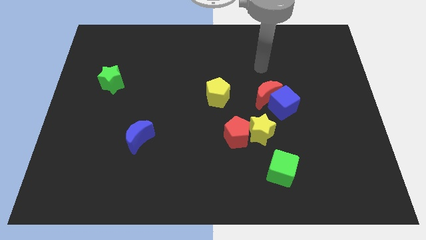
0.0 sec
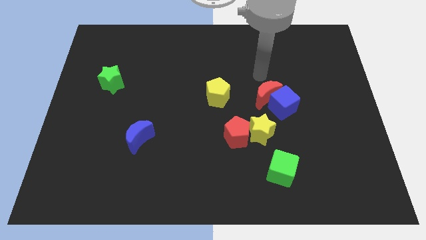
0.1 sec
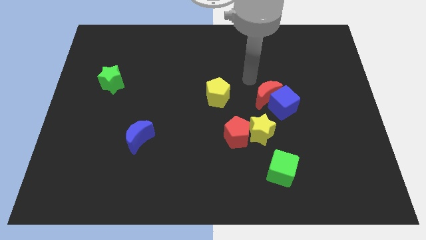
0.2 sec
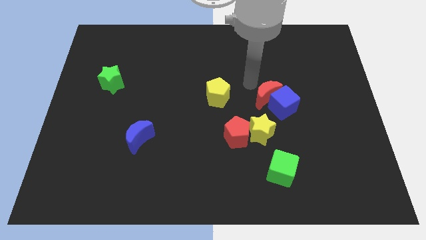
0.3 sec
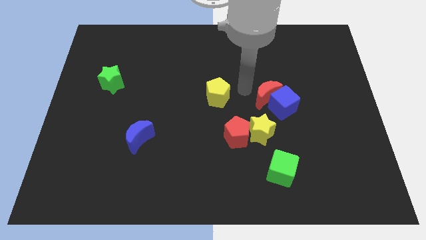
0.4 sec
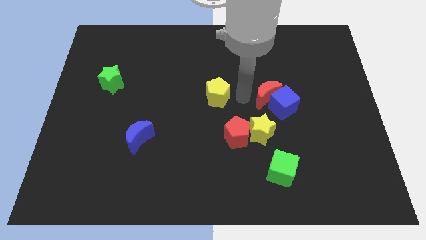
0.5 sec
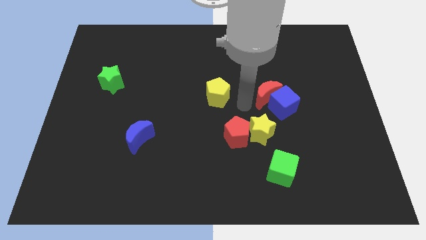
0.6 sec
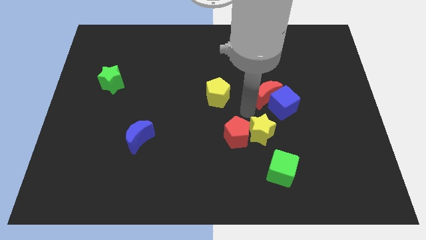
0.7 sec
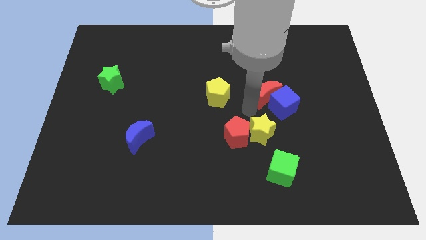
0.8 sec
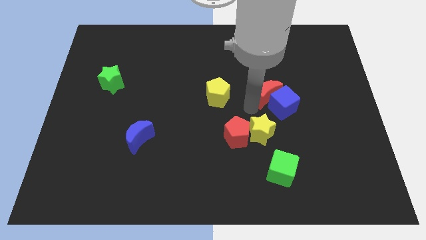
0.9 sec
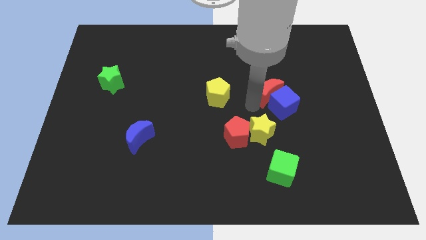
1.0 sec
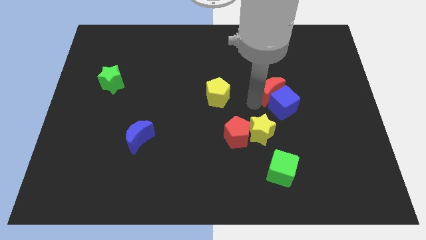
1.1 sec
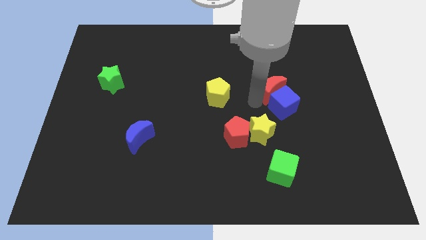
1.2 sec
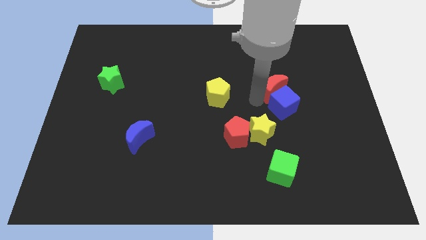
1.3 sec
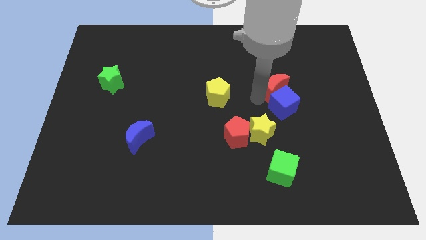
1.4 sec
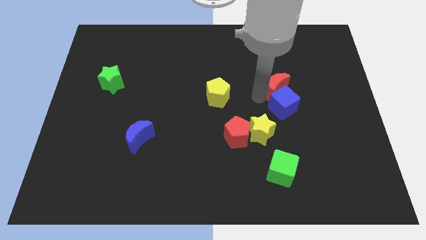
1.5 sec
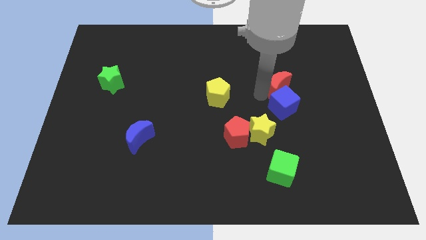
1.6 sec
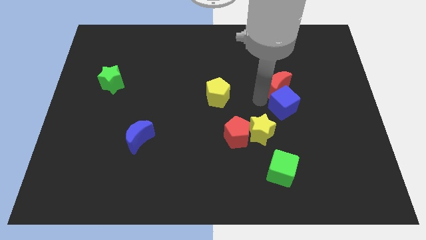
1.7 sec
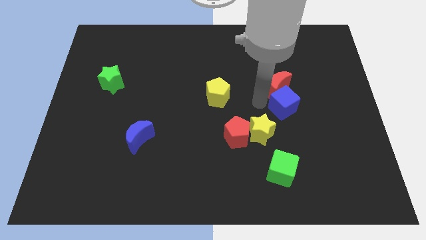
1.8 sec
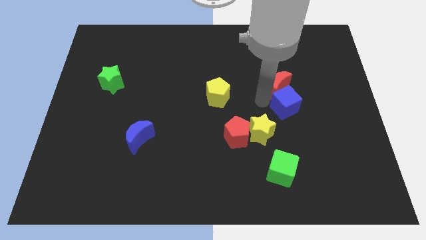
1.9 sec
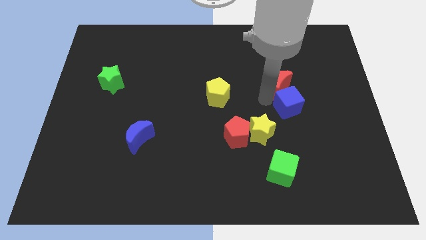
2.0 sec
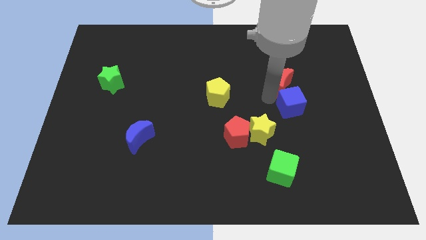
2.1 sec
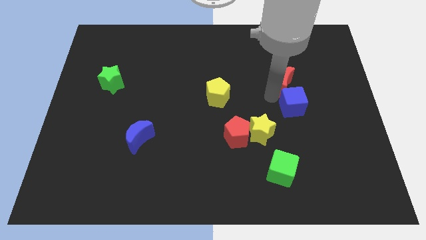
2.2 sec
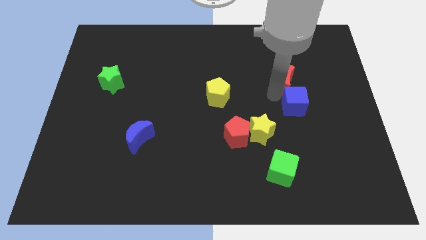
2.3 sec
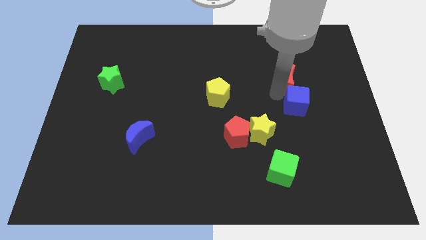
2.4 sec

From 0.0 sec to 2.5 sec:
slide the red moon up and then to the right somewhat

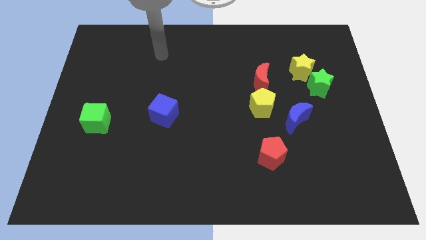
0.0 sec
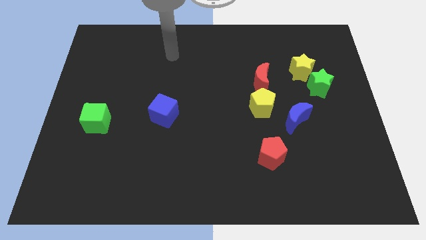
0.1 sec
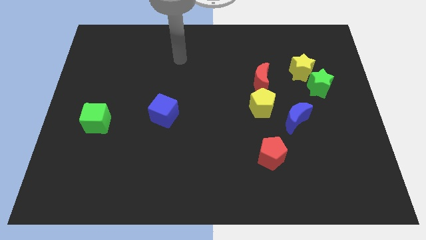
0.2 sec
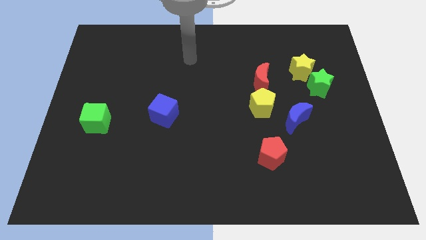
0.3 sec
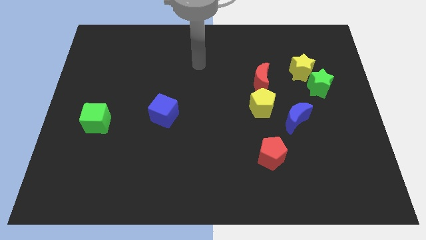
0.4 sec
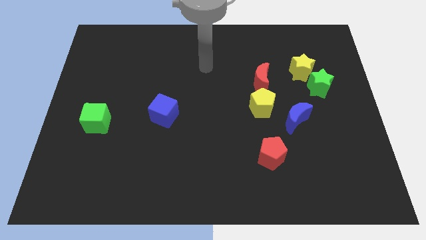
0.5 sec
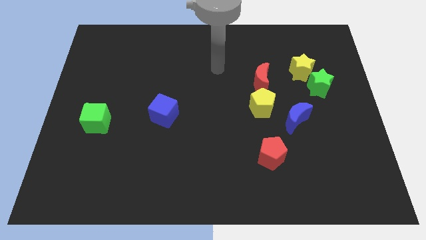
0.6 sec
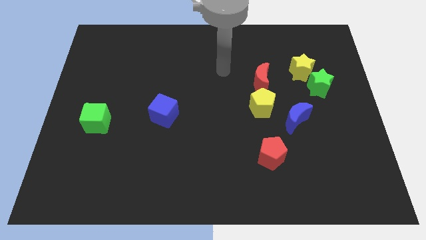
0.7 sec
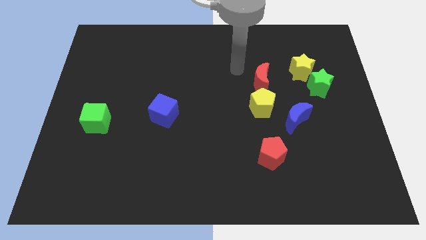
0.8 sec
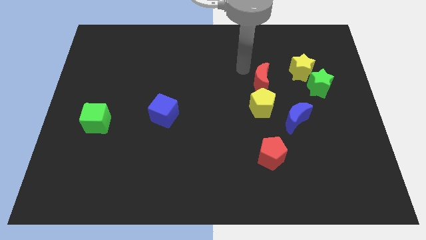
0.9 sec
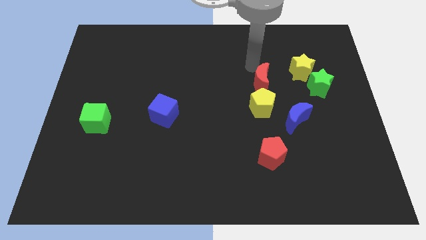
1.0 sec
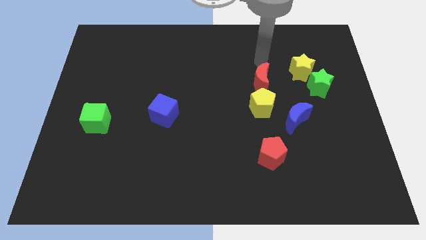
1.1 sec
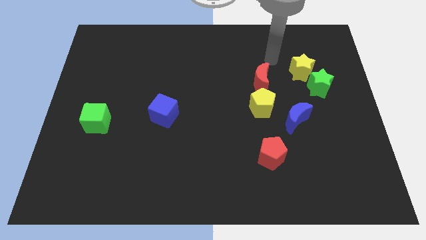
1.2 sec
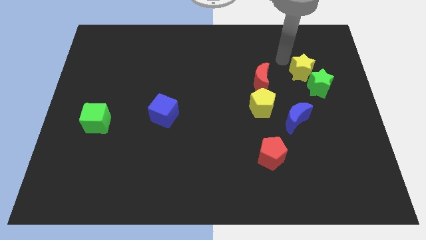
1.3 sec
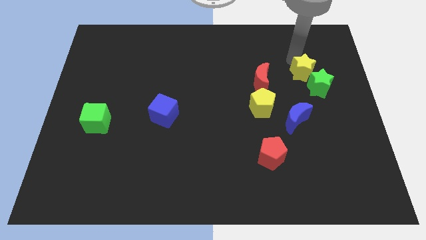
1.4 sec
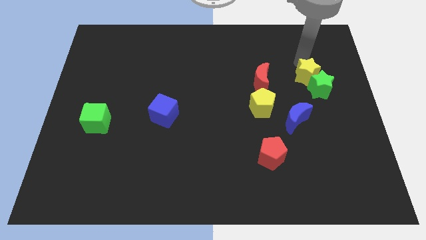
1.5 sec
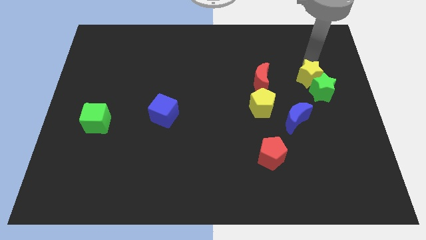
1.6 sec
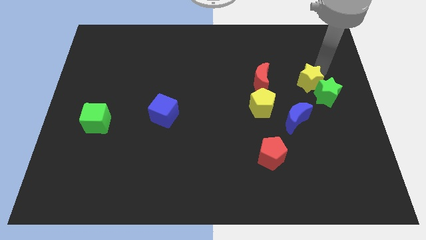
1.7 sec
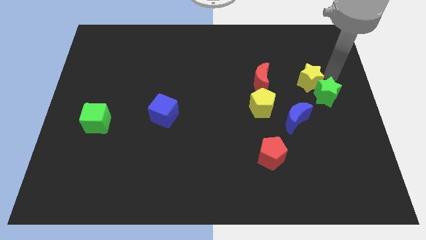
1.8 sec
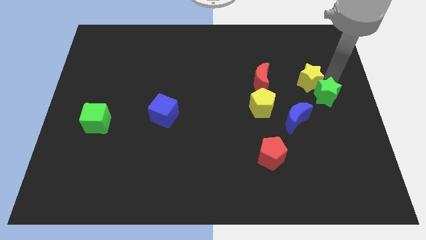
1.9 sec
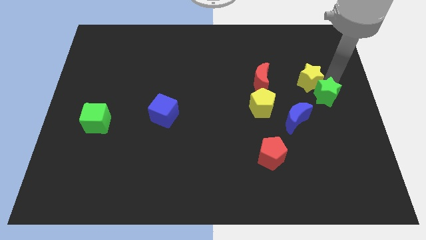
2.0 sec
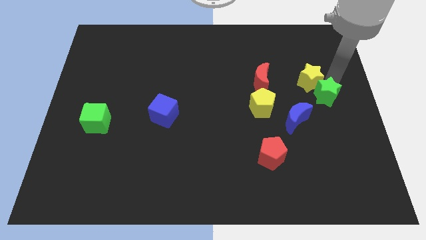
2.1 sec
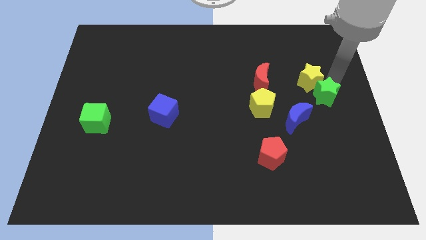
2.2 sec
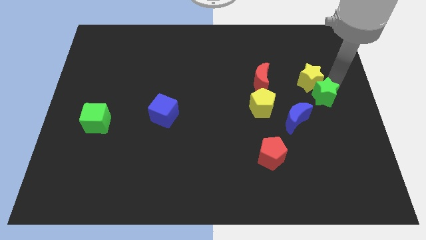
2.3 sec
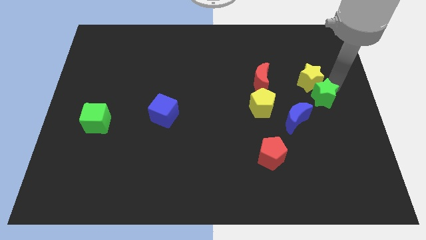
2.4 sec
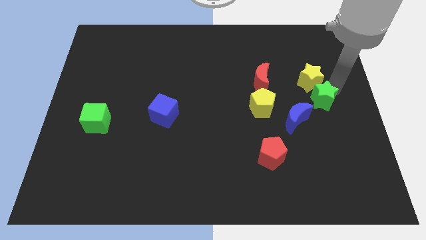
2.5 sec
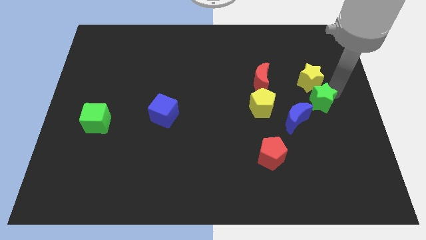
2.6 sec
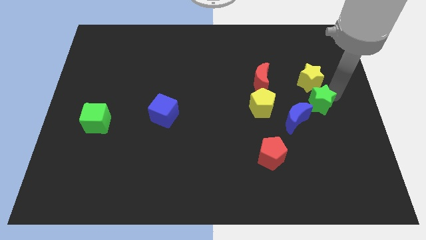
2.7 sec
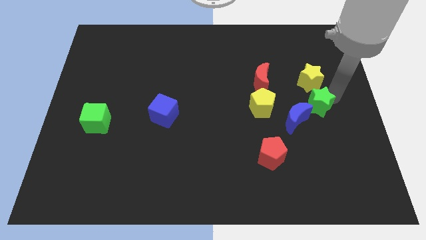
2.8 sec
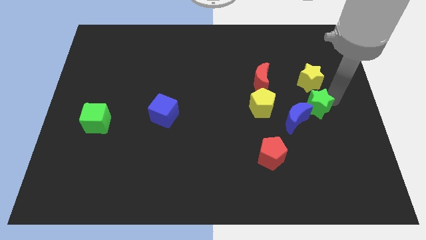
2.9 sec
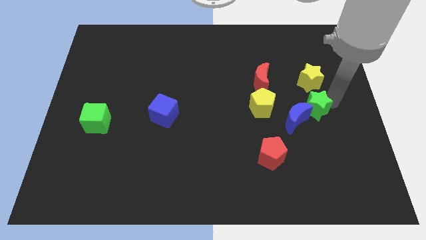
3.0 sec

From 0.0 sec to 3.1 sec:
push the green star slightly down

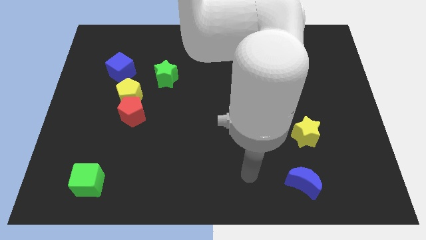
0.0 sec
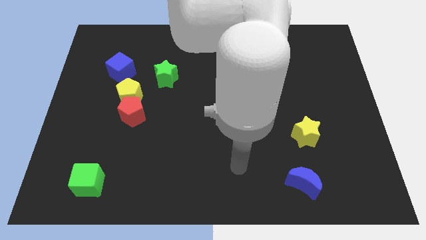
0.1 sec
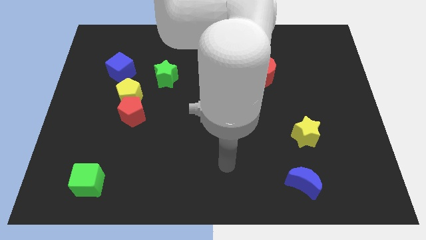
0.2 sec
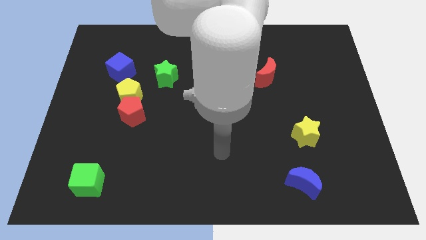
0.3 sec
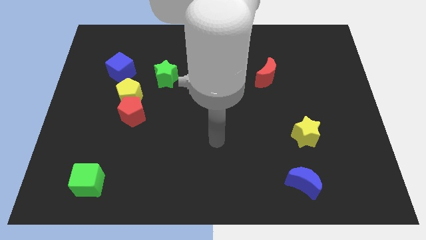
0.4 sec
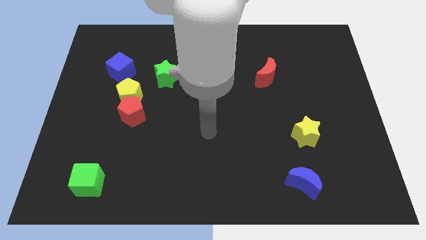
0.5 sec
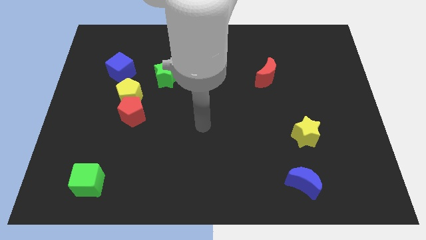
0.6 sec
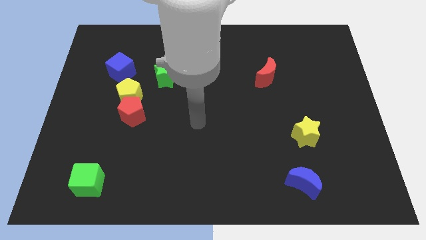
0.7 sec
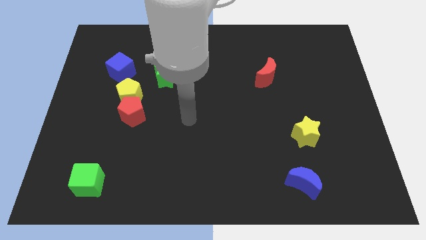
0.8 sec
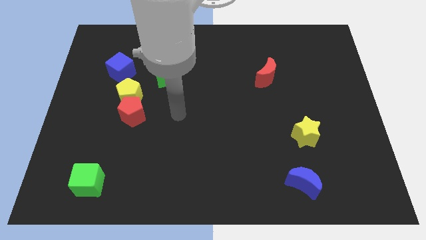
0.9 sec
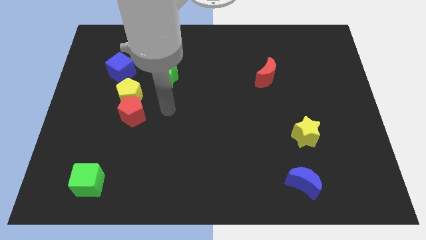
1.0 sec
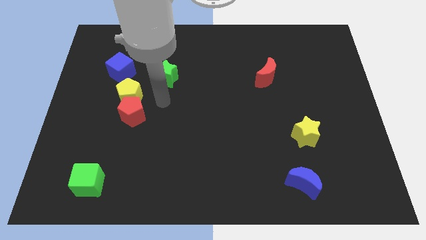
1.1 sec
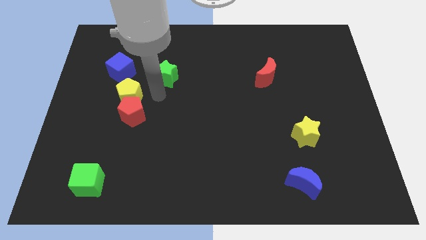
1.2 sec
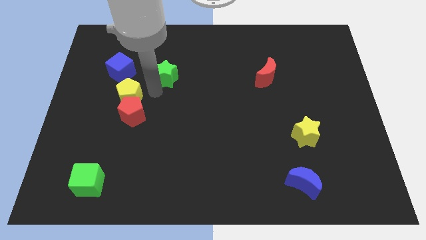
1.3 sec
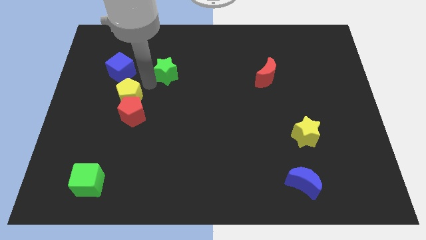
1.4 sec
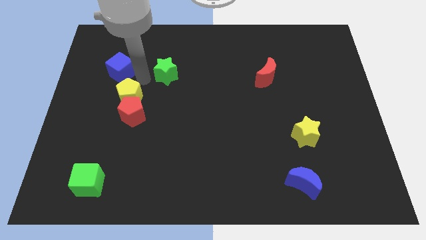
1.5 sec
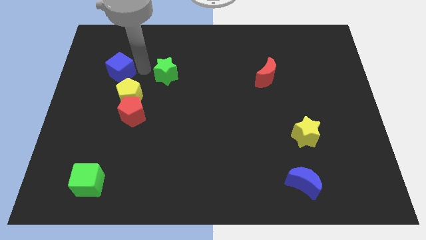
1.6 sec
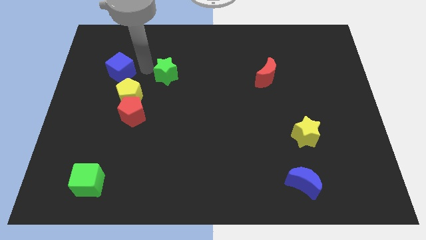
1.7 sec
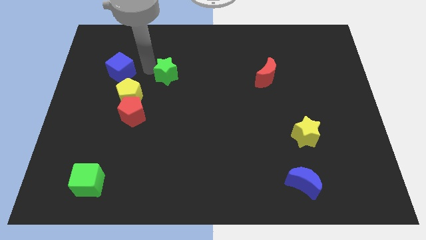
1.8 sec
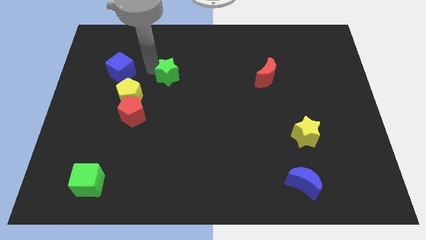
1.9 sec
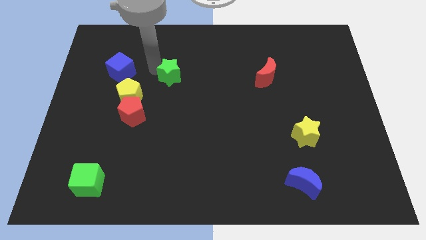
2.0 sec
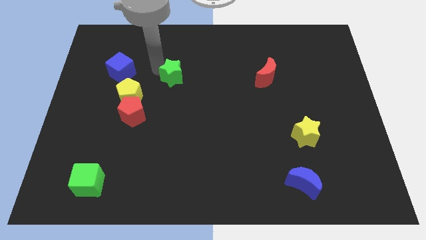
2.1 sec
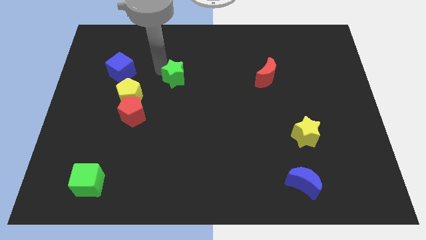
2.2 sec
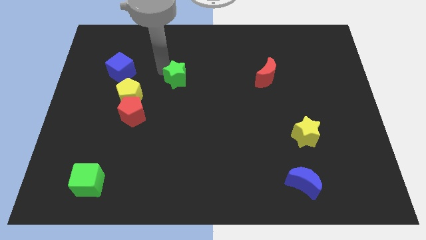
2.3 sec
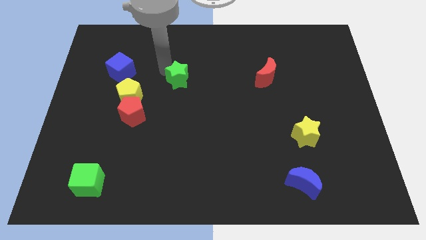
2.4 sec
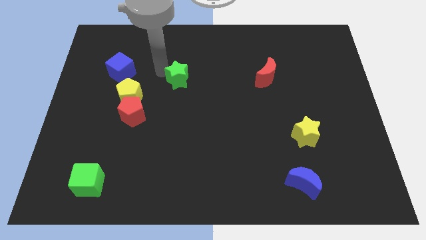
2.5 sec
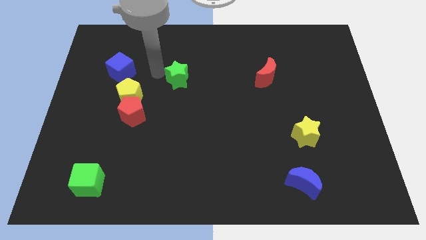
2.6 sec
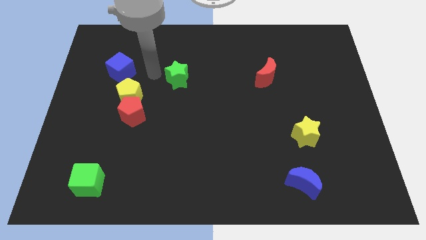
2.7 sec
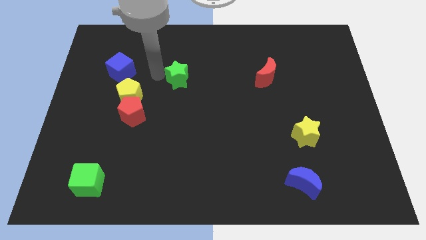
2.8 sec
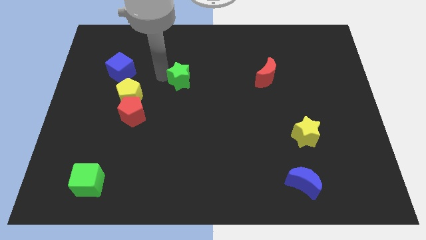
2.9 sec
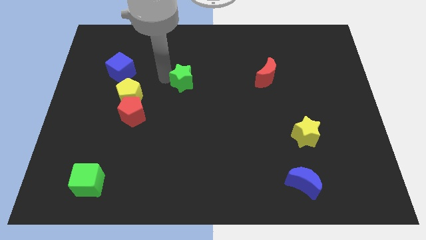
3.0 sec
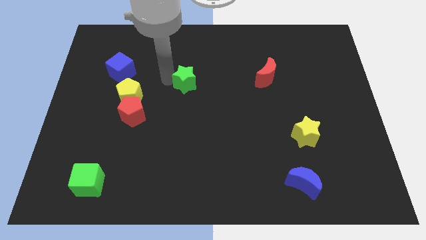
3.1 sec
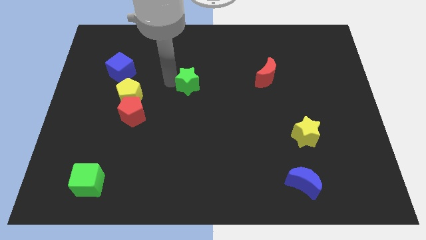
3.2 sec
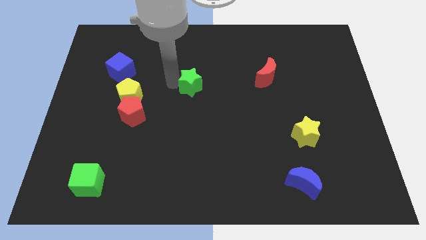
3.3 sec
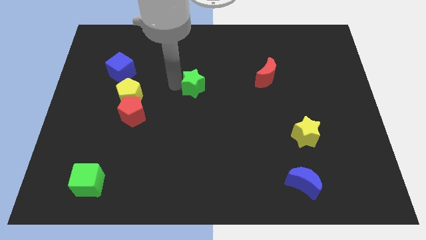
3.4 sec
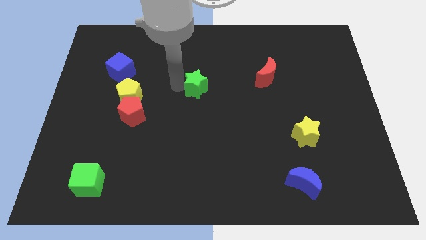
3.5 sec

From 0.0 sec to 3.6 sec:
slide the green star to the right somewhat
